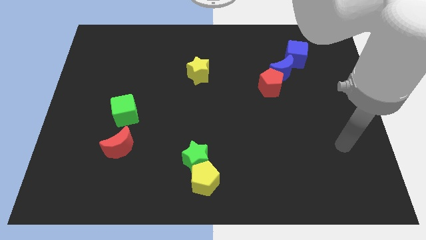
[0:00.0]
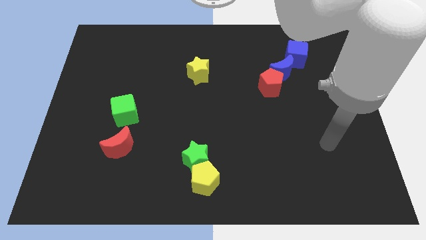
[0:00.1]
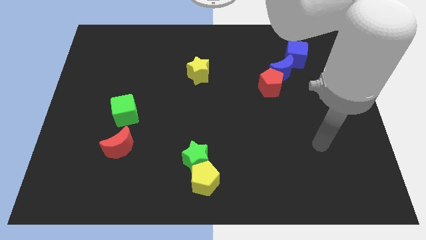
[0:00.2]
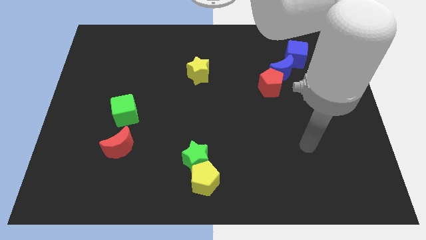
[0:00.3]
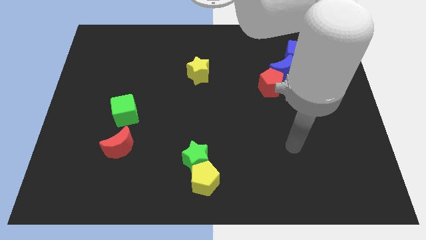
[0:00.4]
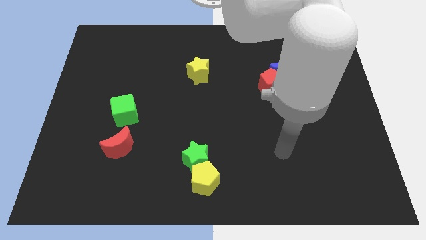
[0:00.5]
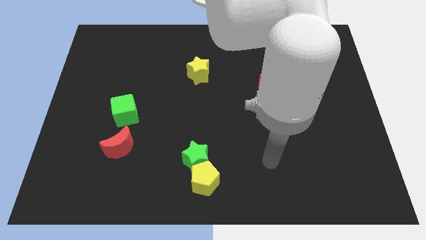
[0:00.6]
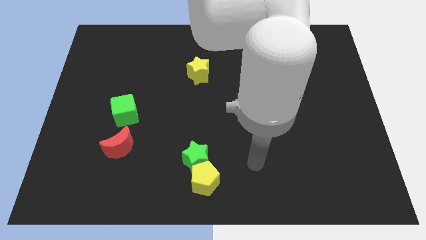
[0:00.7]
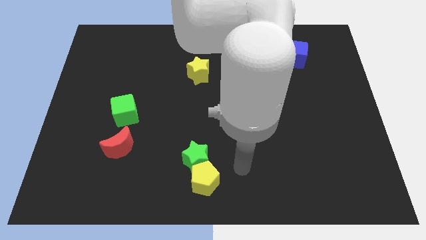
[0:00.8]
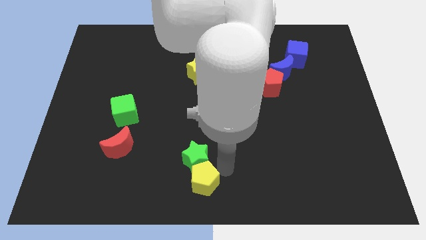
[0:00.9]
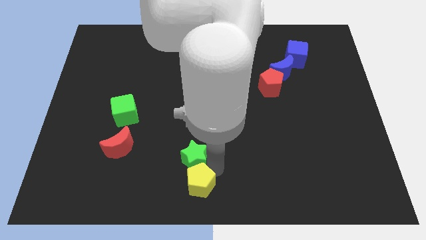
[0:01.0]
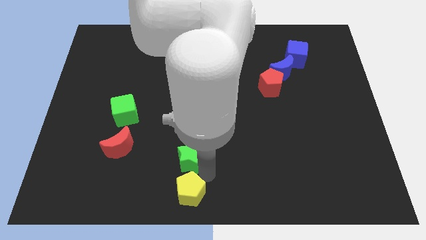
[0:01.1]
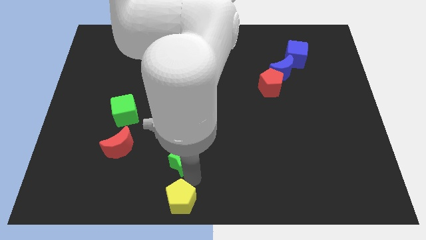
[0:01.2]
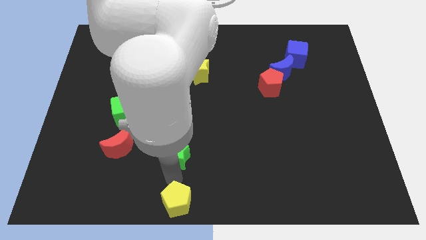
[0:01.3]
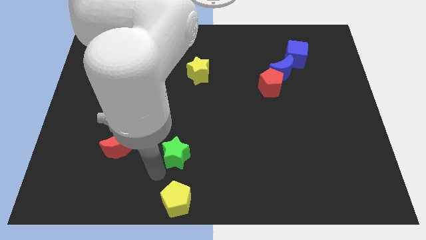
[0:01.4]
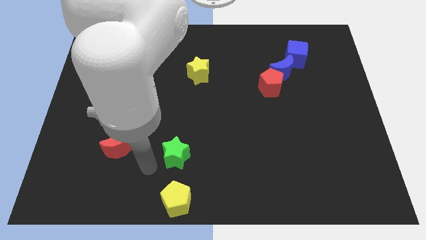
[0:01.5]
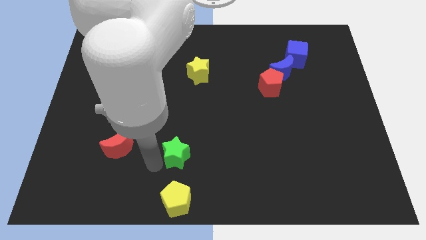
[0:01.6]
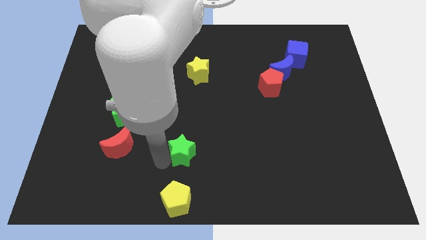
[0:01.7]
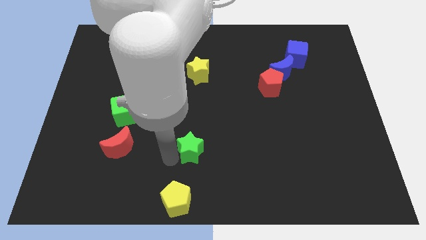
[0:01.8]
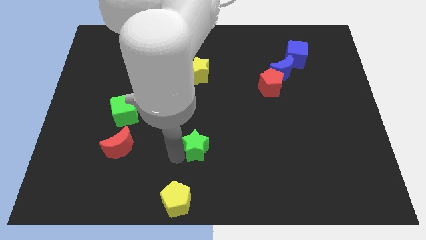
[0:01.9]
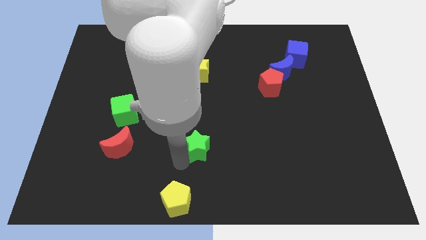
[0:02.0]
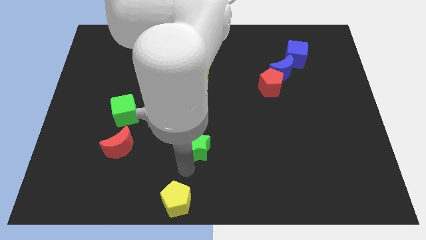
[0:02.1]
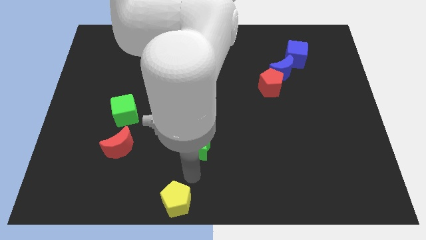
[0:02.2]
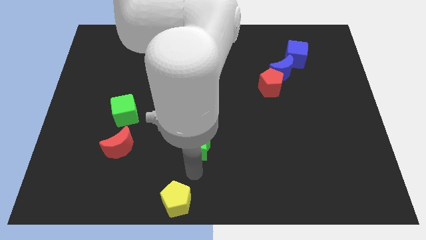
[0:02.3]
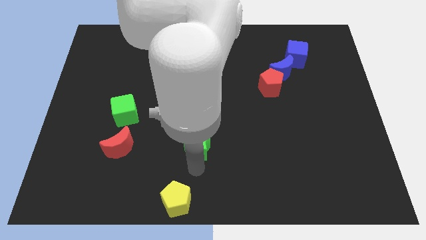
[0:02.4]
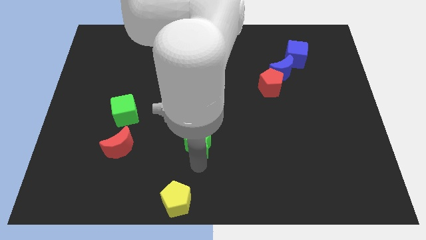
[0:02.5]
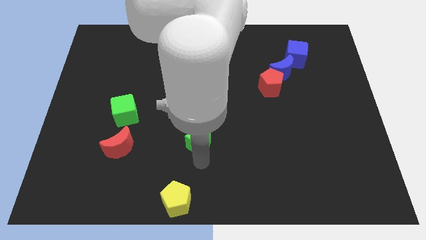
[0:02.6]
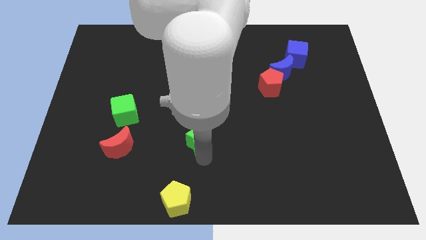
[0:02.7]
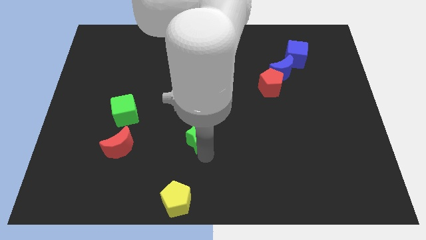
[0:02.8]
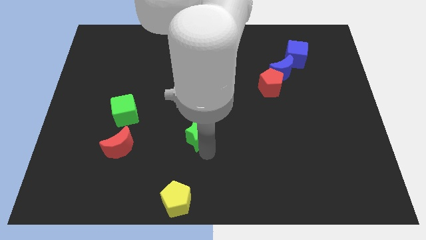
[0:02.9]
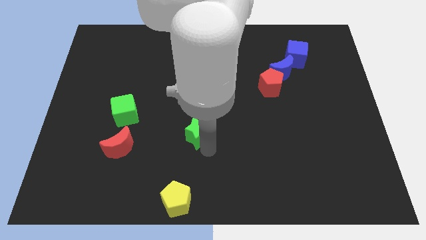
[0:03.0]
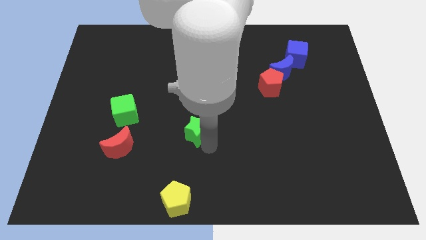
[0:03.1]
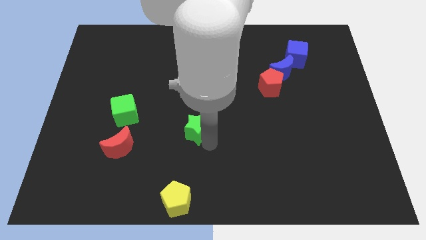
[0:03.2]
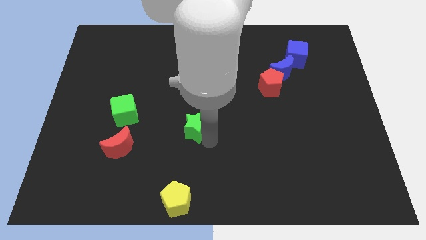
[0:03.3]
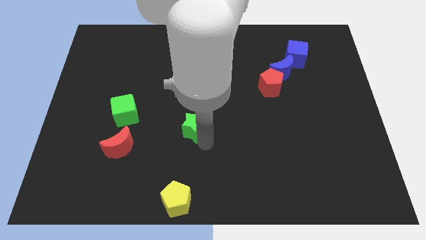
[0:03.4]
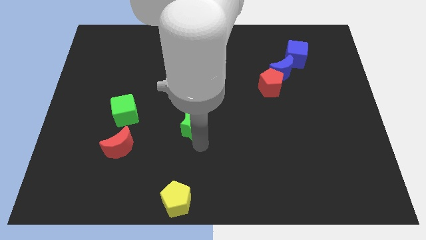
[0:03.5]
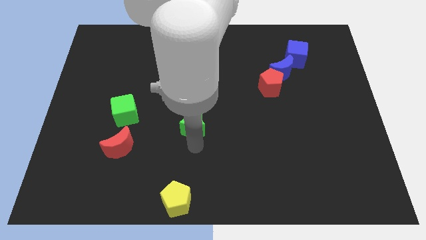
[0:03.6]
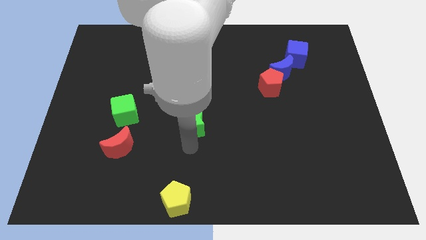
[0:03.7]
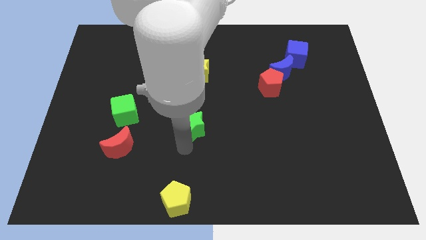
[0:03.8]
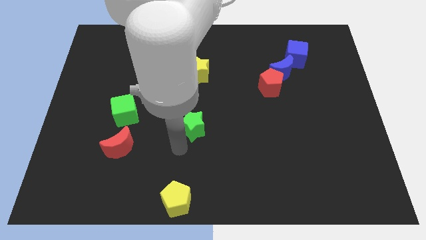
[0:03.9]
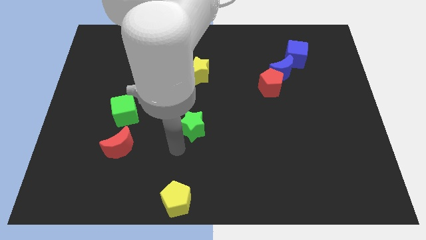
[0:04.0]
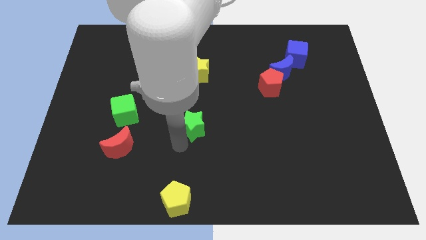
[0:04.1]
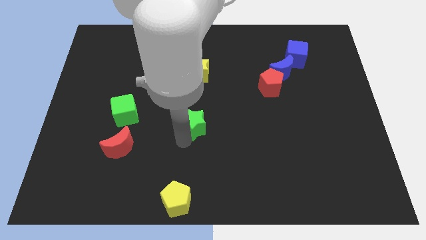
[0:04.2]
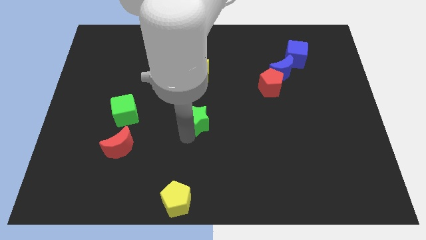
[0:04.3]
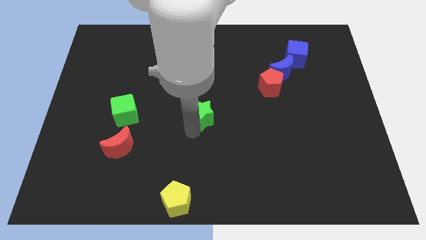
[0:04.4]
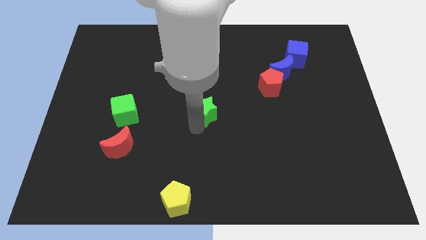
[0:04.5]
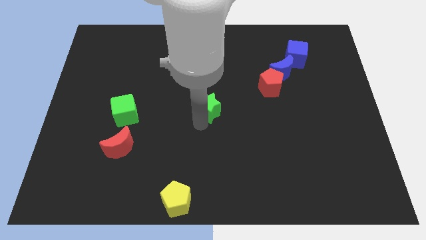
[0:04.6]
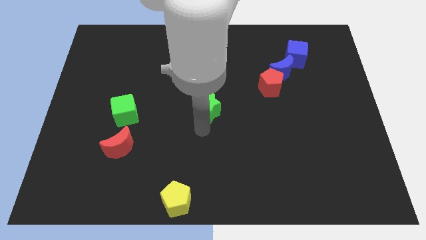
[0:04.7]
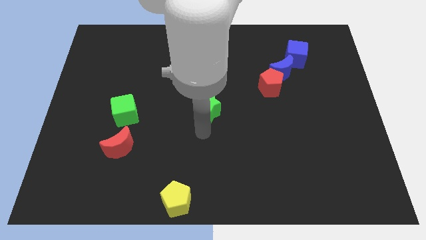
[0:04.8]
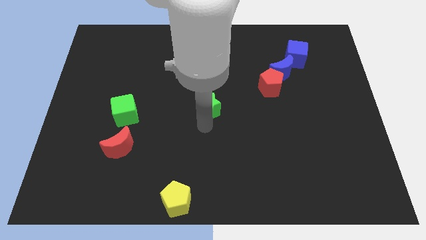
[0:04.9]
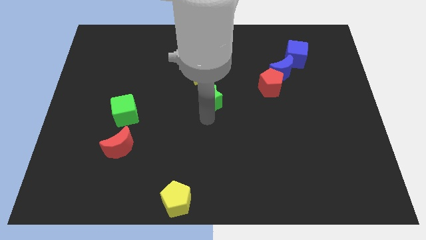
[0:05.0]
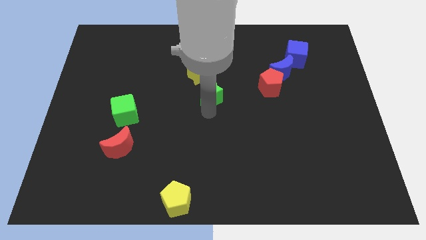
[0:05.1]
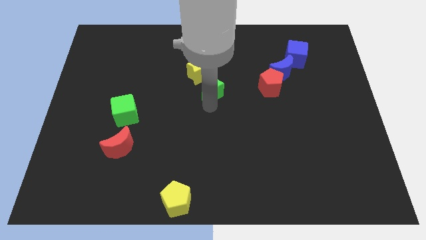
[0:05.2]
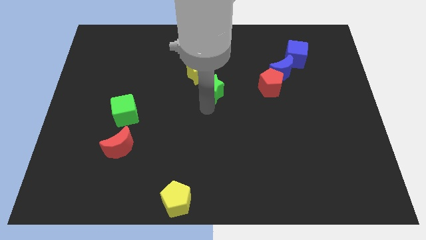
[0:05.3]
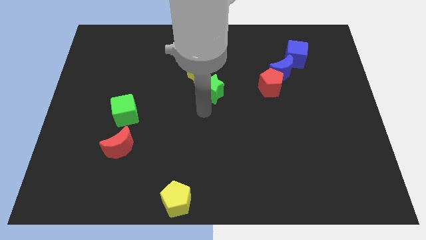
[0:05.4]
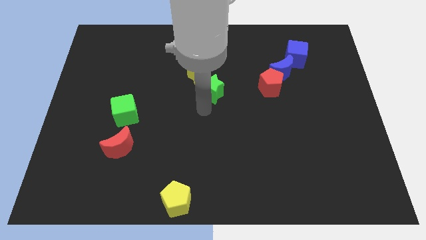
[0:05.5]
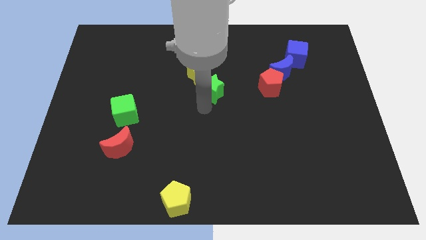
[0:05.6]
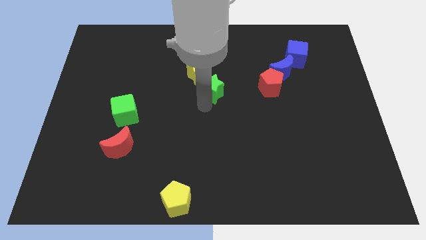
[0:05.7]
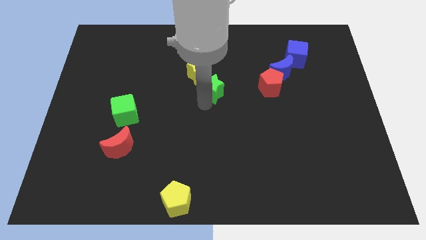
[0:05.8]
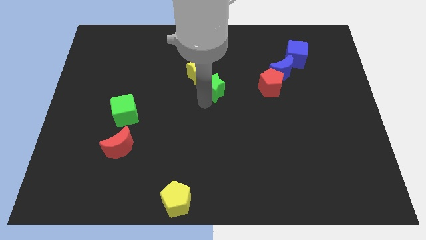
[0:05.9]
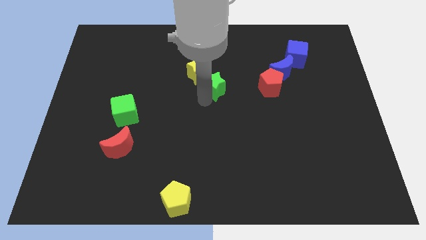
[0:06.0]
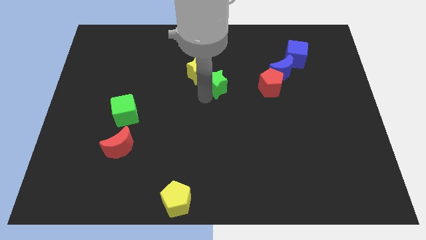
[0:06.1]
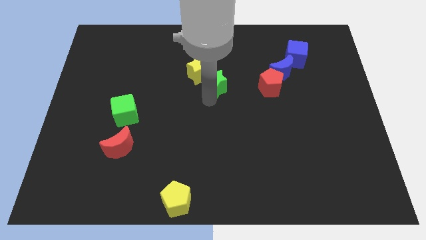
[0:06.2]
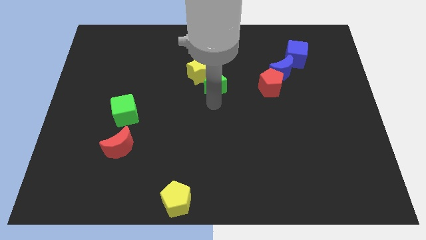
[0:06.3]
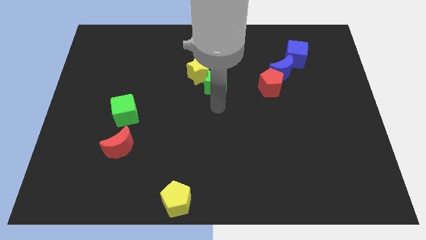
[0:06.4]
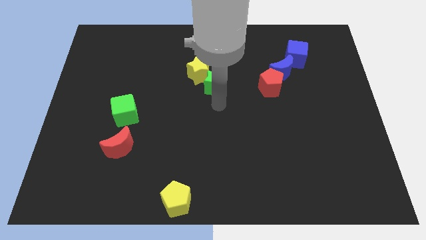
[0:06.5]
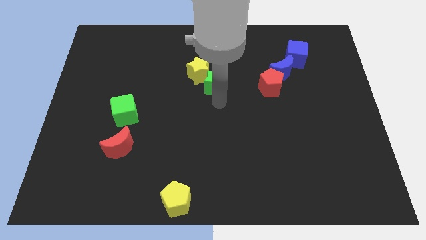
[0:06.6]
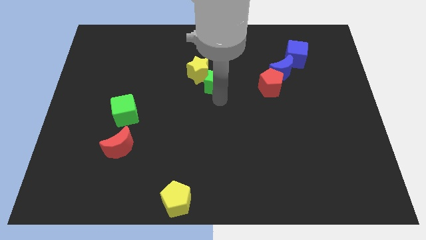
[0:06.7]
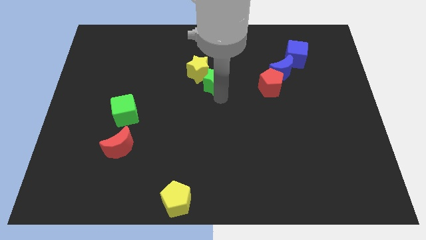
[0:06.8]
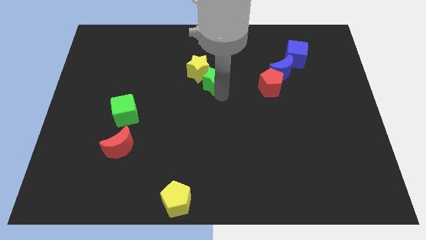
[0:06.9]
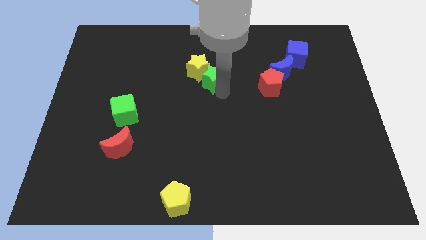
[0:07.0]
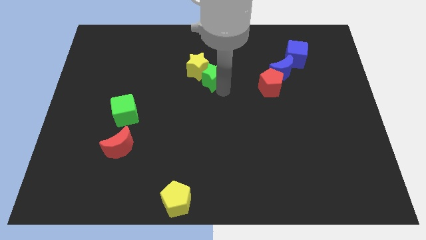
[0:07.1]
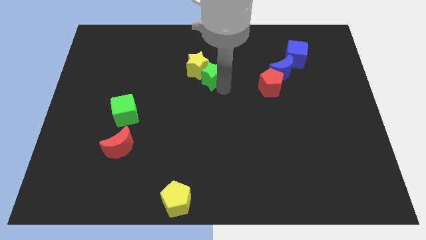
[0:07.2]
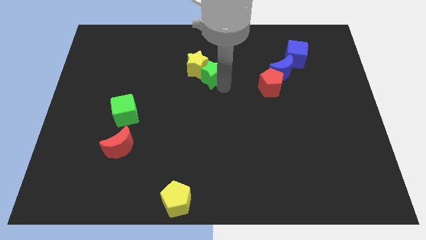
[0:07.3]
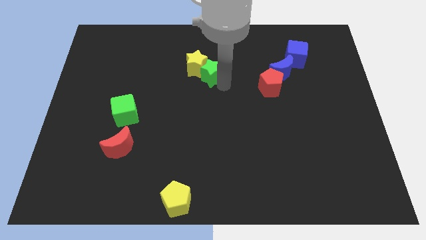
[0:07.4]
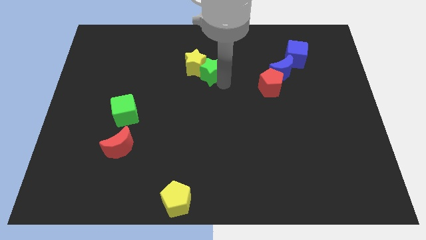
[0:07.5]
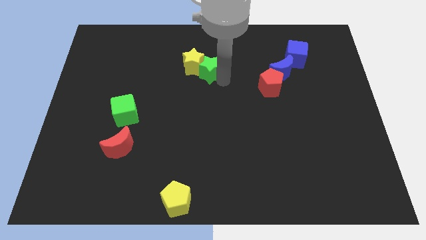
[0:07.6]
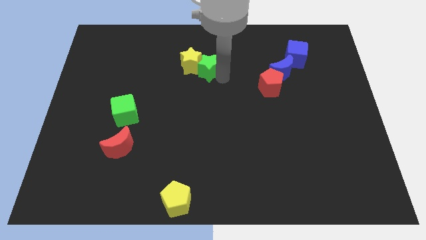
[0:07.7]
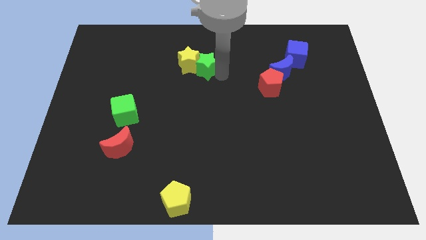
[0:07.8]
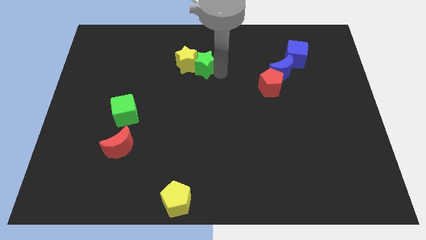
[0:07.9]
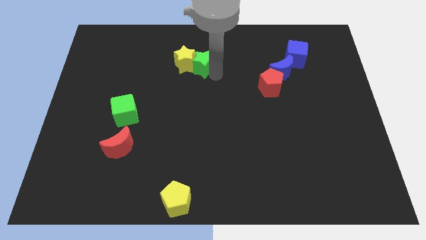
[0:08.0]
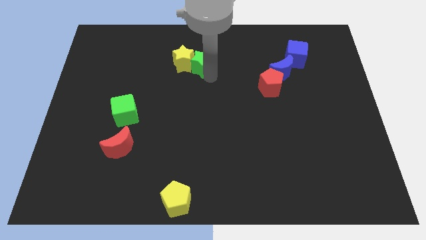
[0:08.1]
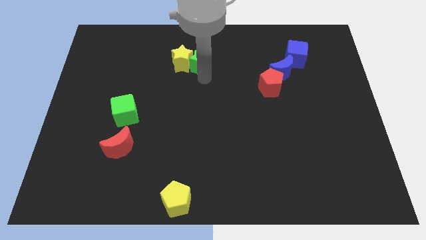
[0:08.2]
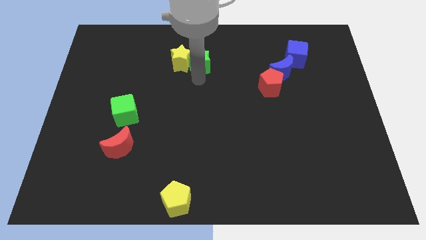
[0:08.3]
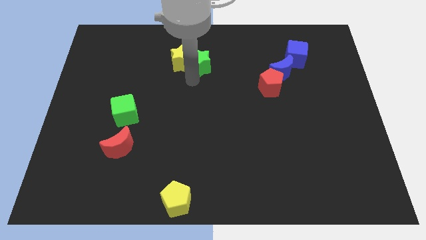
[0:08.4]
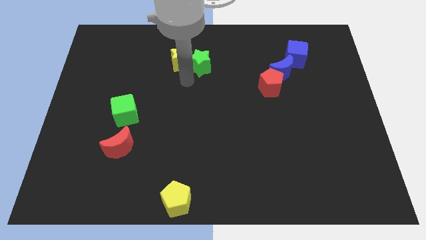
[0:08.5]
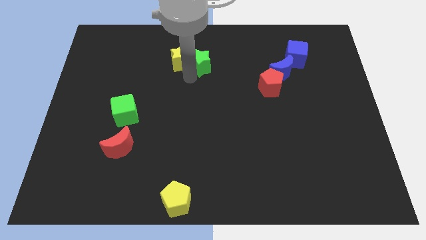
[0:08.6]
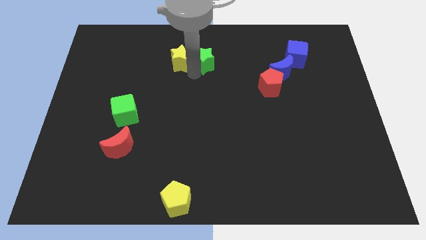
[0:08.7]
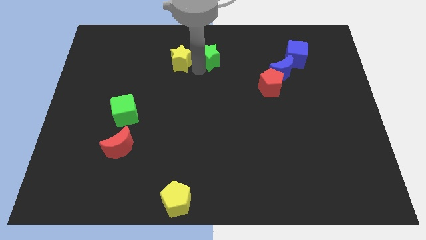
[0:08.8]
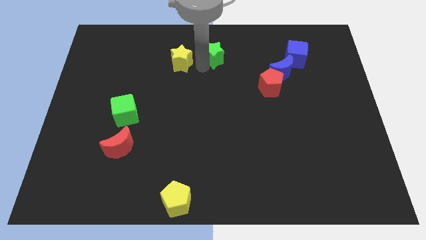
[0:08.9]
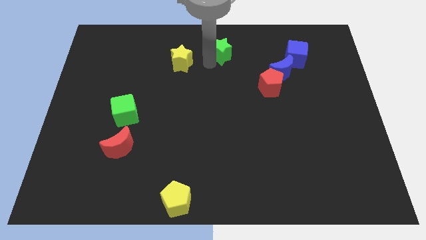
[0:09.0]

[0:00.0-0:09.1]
put the green star to the top side
